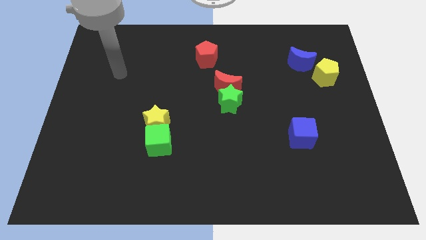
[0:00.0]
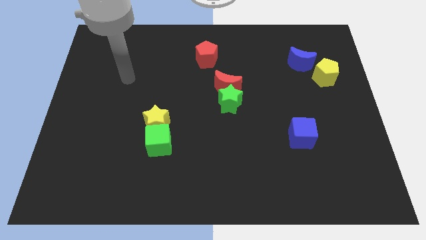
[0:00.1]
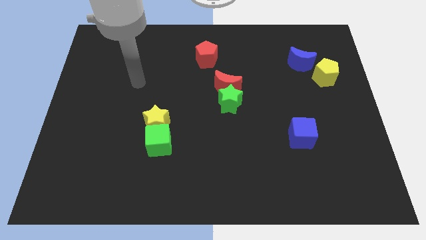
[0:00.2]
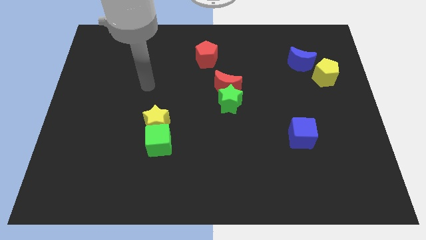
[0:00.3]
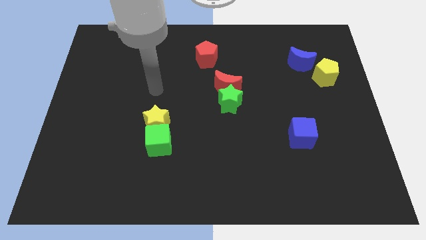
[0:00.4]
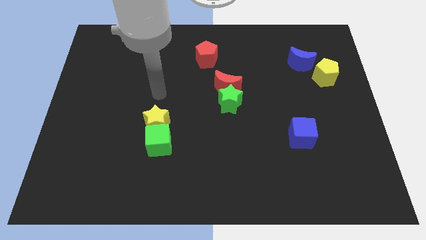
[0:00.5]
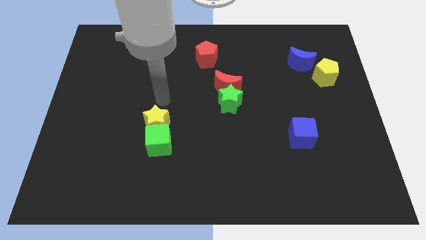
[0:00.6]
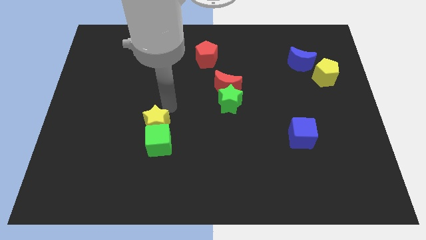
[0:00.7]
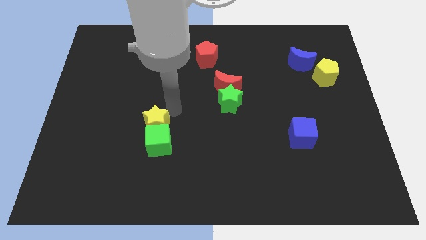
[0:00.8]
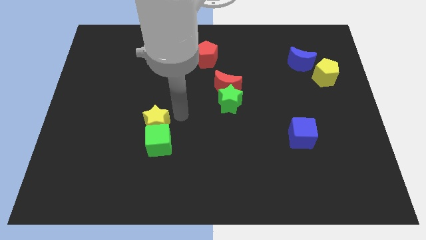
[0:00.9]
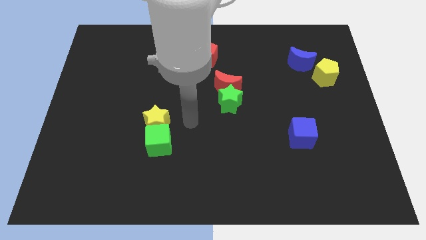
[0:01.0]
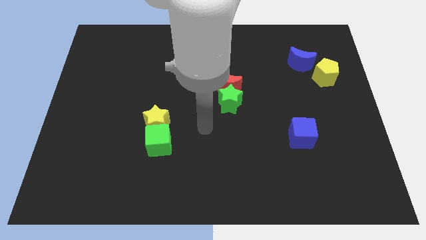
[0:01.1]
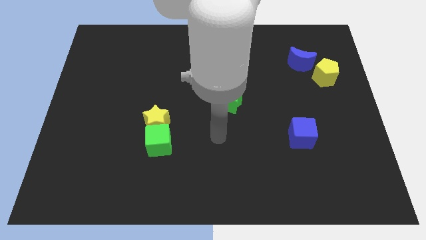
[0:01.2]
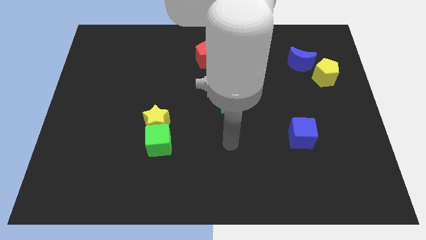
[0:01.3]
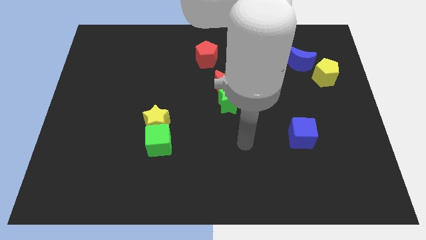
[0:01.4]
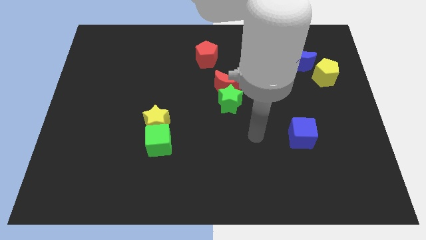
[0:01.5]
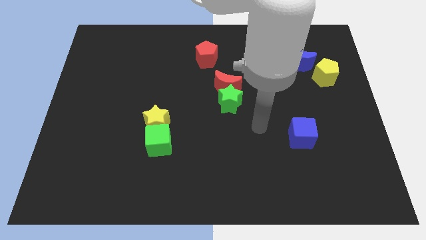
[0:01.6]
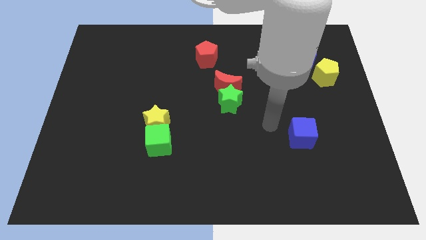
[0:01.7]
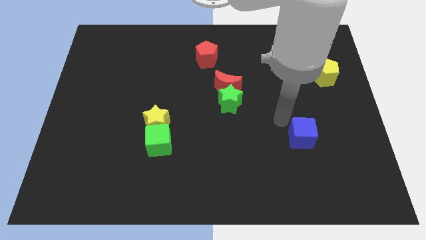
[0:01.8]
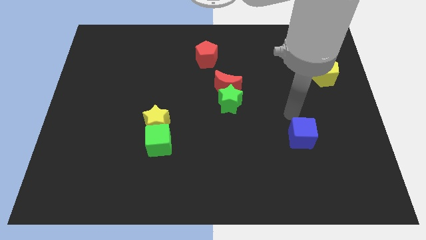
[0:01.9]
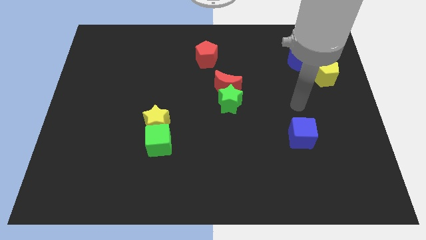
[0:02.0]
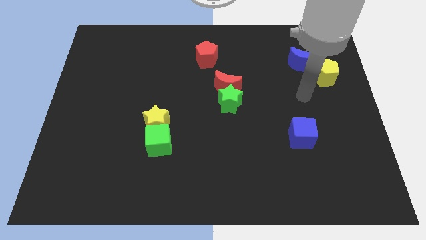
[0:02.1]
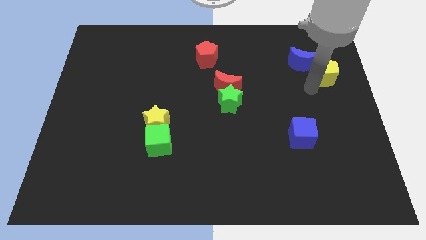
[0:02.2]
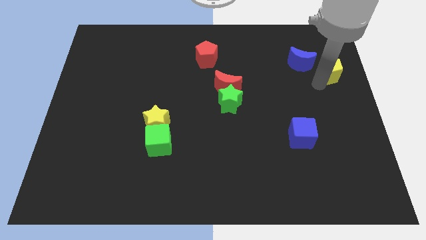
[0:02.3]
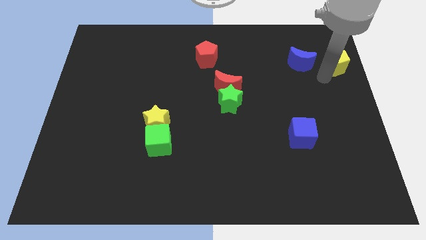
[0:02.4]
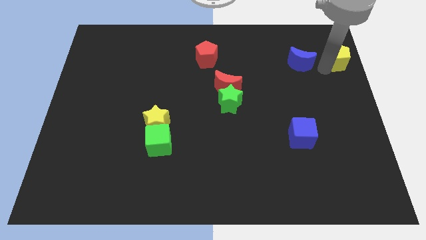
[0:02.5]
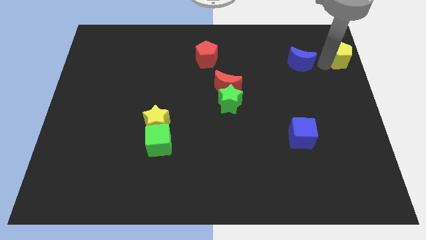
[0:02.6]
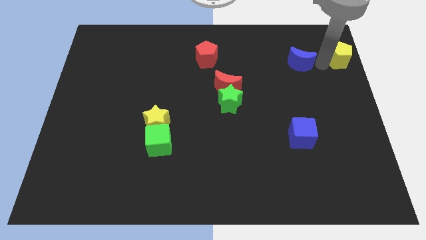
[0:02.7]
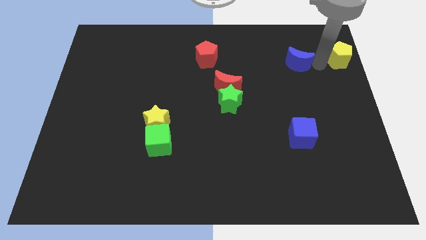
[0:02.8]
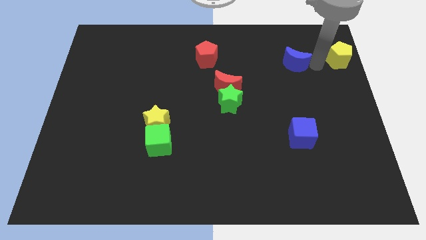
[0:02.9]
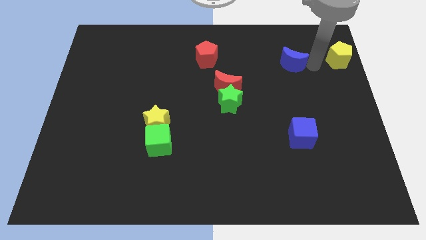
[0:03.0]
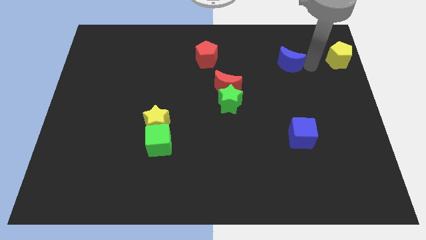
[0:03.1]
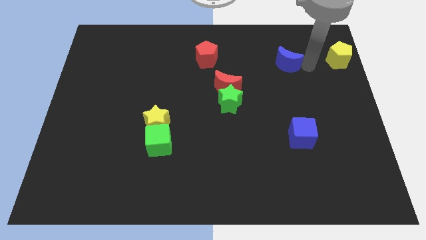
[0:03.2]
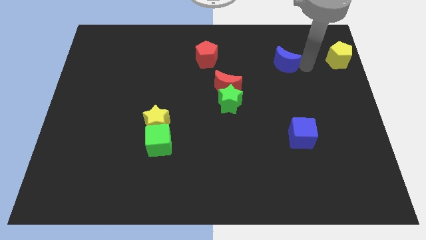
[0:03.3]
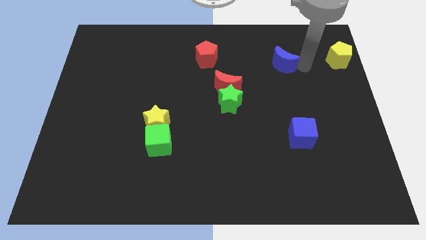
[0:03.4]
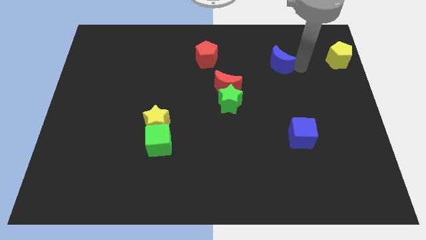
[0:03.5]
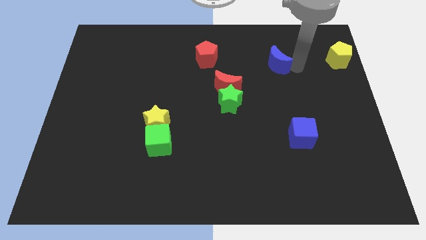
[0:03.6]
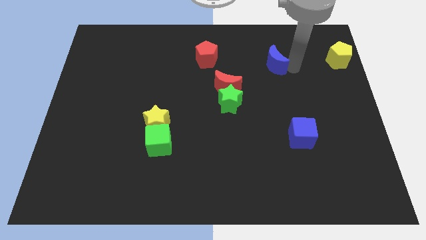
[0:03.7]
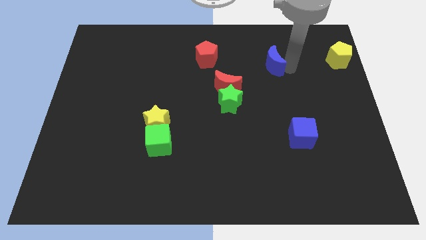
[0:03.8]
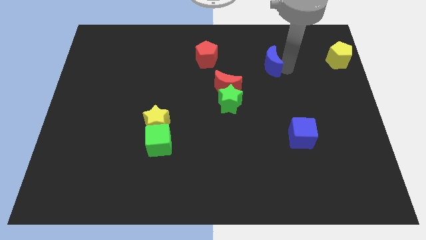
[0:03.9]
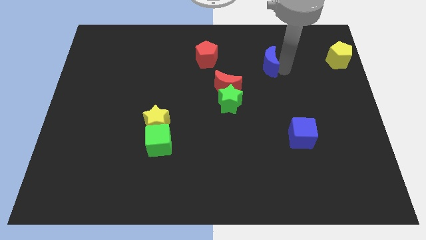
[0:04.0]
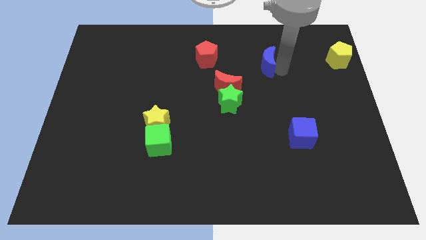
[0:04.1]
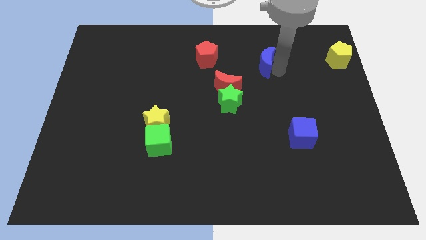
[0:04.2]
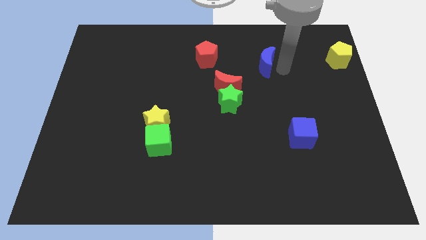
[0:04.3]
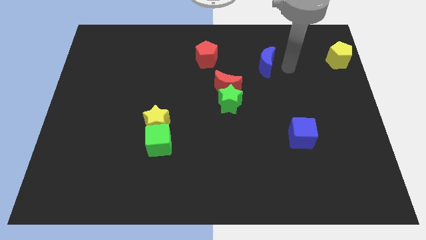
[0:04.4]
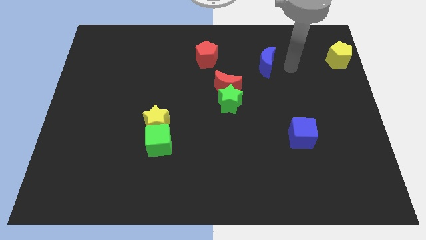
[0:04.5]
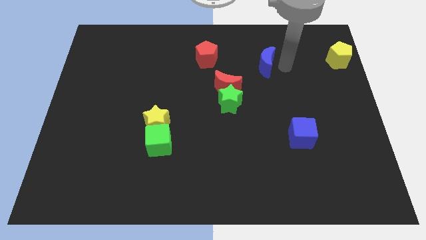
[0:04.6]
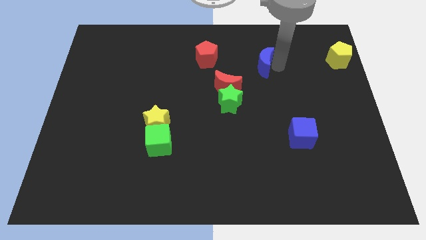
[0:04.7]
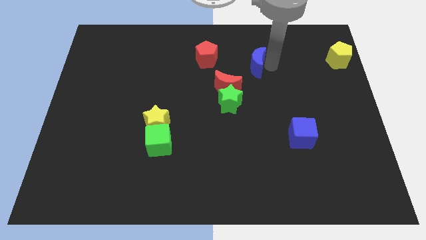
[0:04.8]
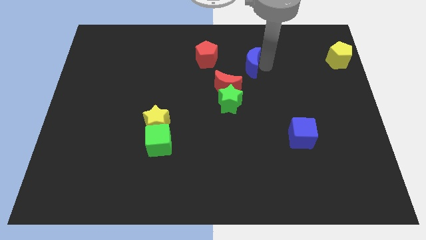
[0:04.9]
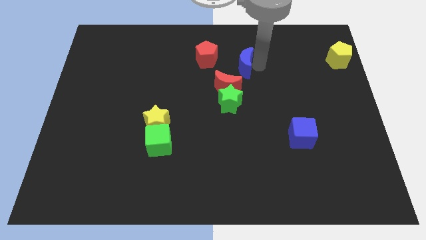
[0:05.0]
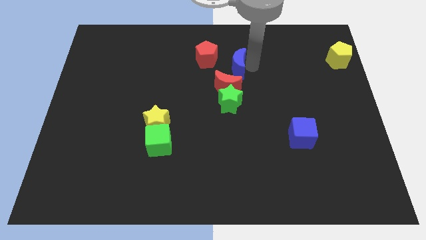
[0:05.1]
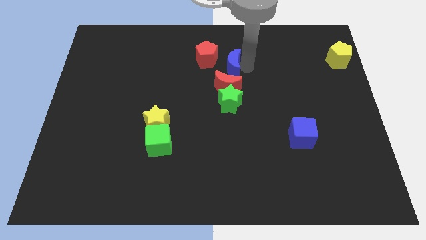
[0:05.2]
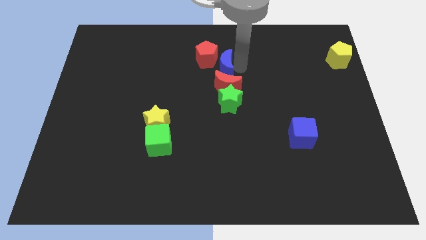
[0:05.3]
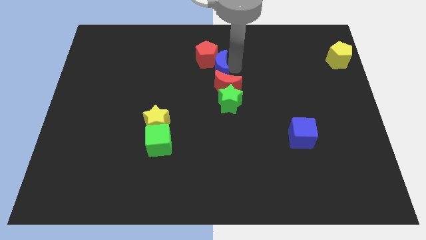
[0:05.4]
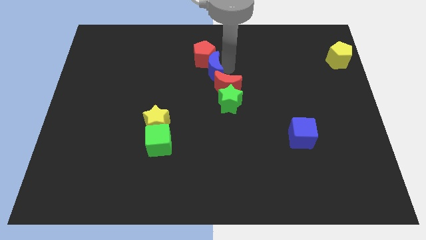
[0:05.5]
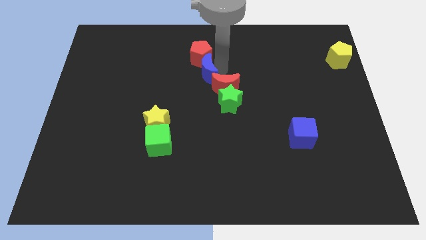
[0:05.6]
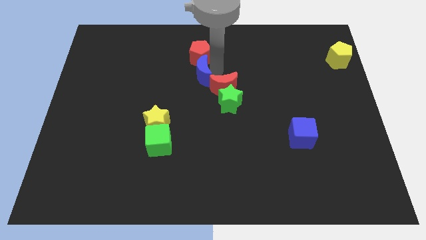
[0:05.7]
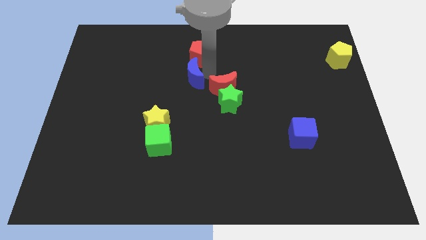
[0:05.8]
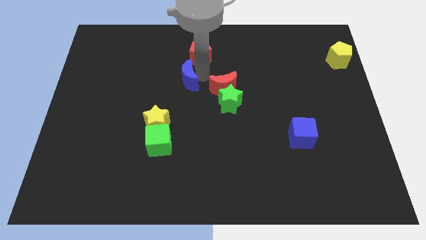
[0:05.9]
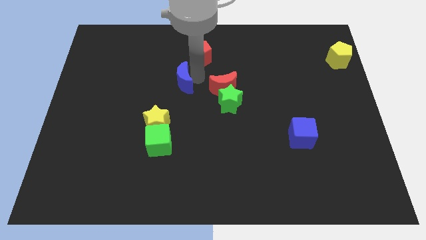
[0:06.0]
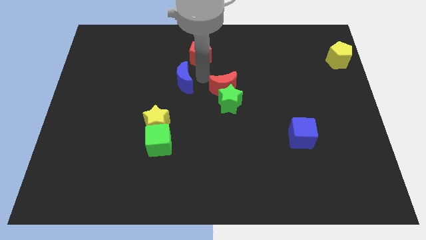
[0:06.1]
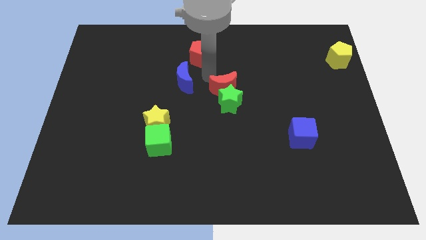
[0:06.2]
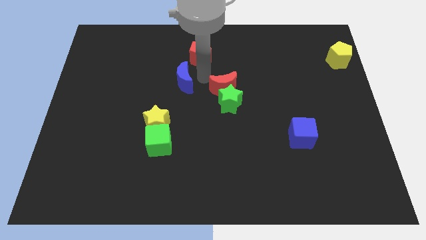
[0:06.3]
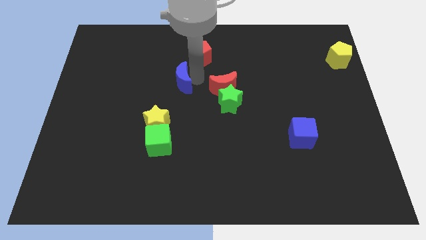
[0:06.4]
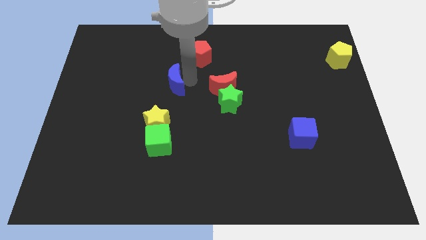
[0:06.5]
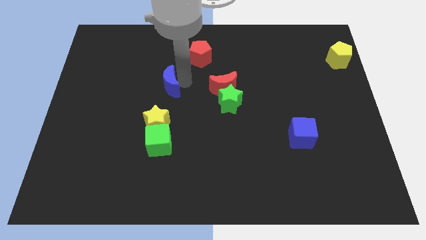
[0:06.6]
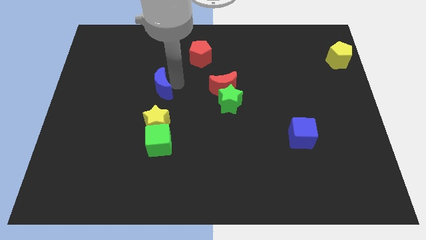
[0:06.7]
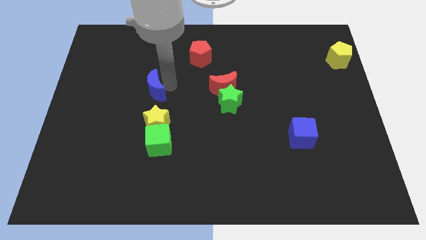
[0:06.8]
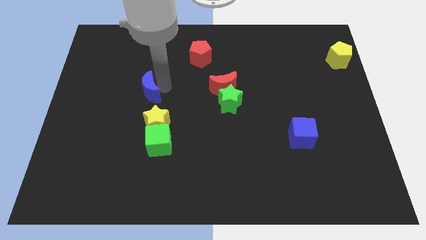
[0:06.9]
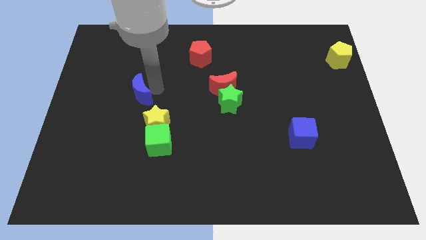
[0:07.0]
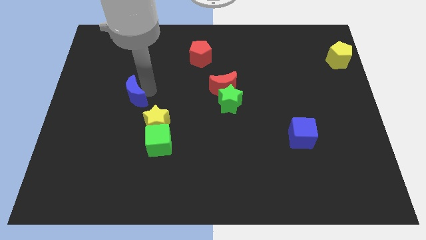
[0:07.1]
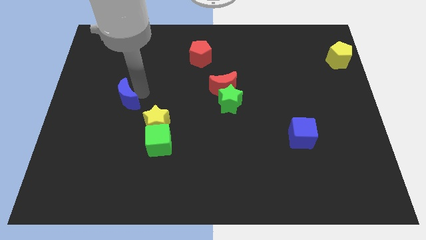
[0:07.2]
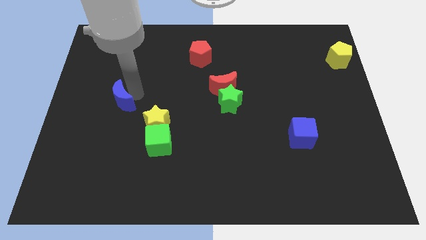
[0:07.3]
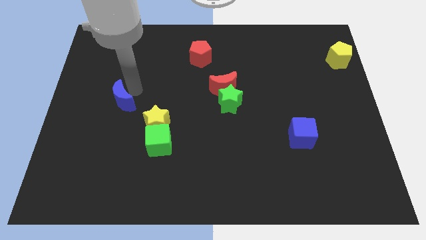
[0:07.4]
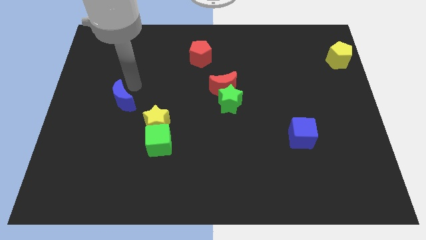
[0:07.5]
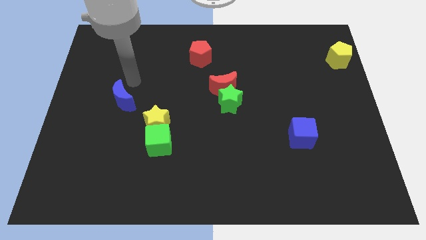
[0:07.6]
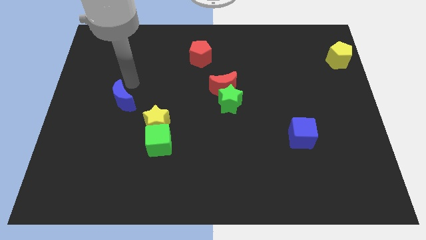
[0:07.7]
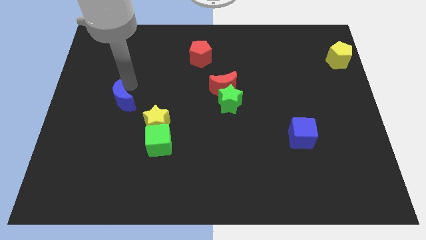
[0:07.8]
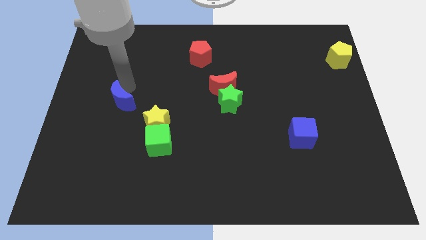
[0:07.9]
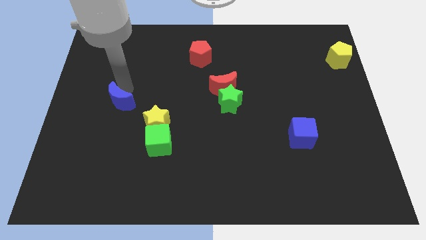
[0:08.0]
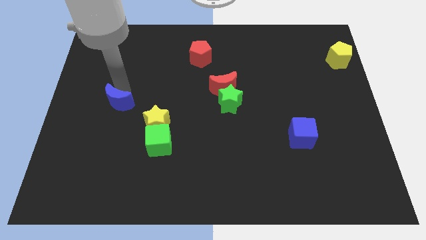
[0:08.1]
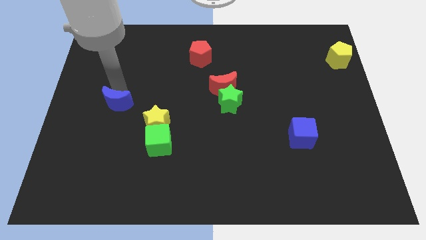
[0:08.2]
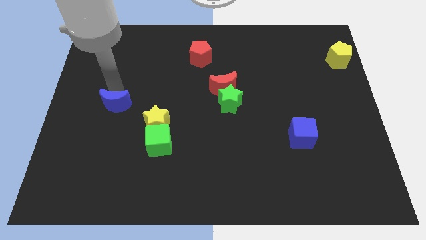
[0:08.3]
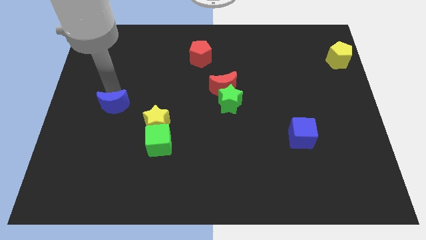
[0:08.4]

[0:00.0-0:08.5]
slide the blue moon to the left side of the yellow star
